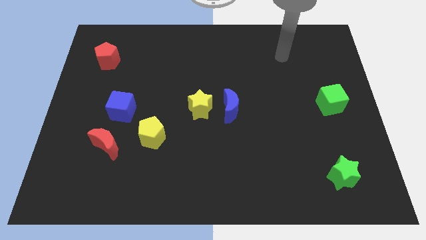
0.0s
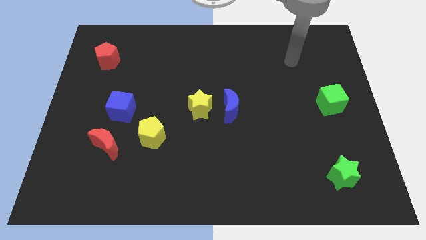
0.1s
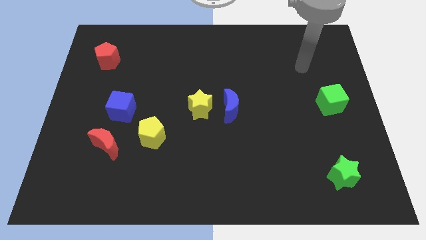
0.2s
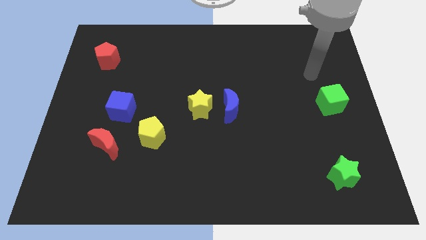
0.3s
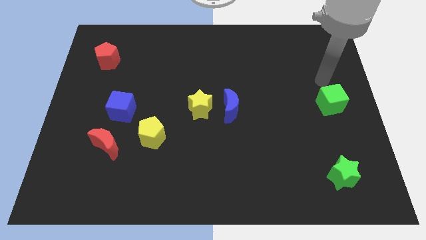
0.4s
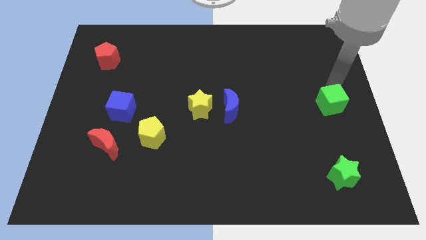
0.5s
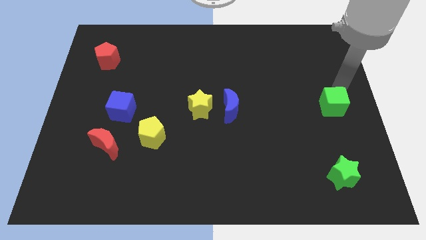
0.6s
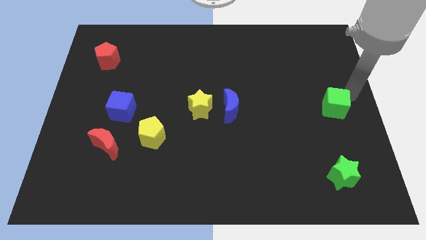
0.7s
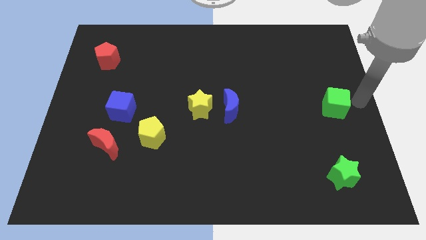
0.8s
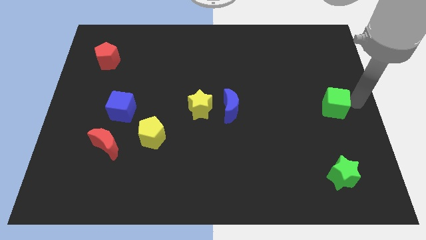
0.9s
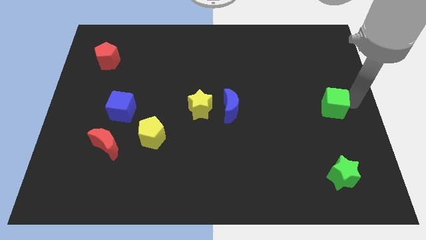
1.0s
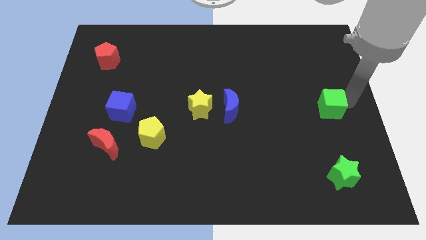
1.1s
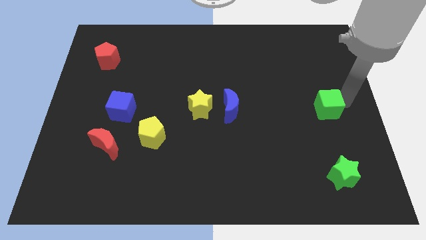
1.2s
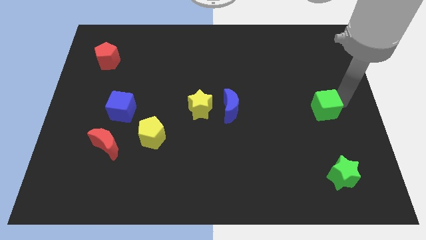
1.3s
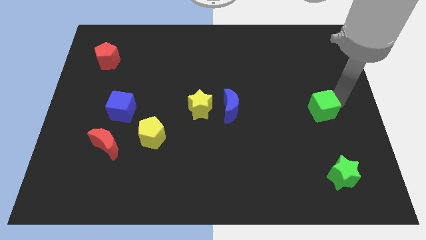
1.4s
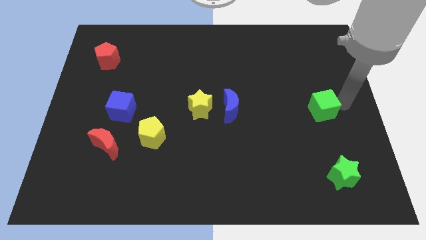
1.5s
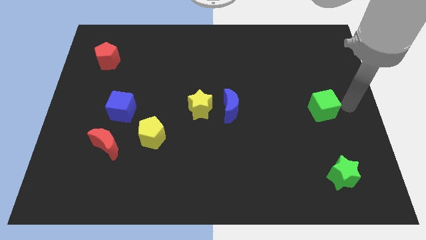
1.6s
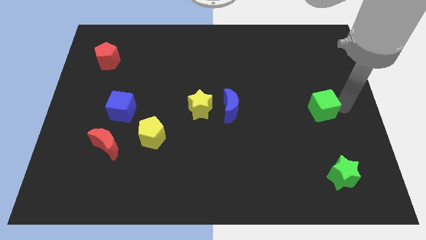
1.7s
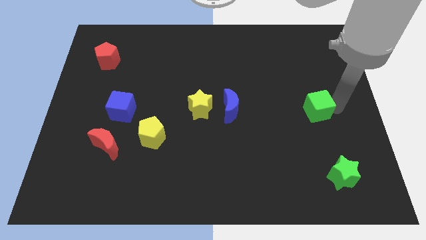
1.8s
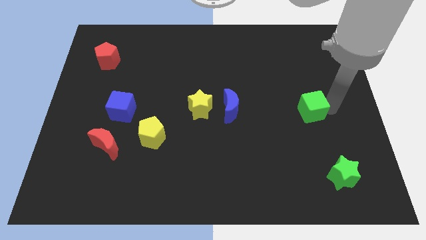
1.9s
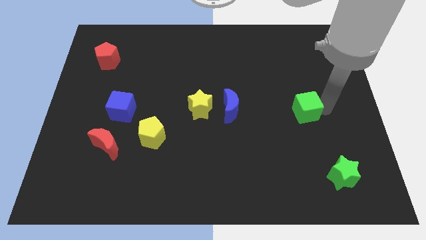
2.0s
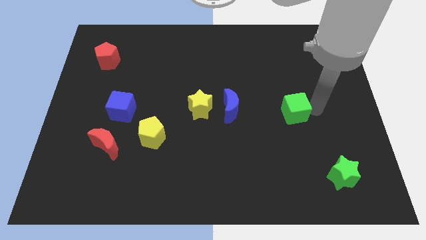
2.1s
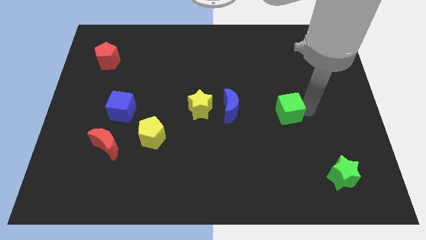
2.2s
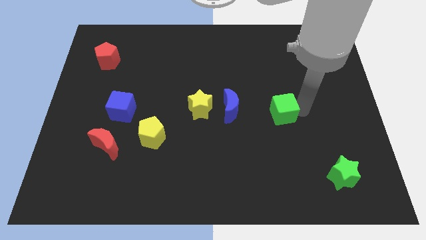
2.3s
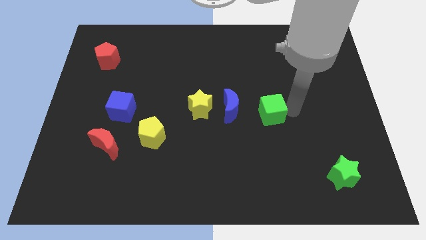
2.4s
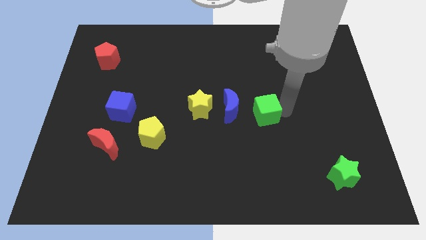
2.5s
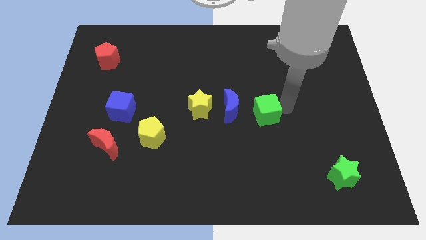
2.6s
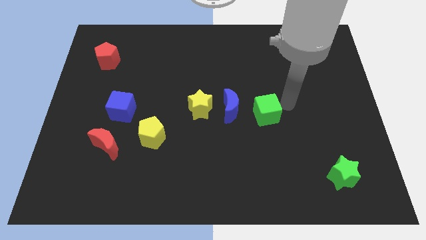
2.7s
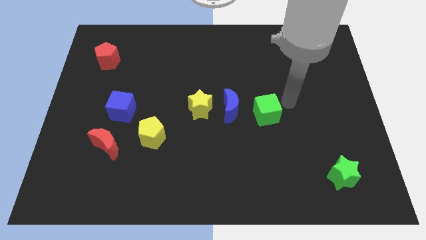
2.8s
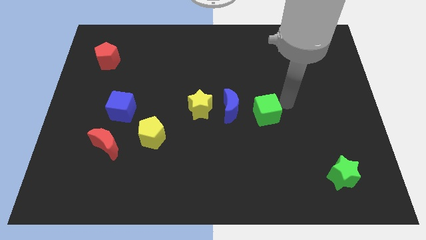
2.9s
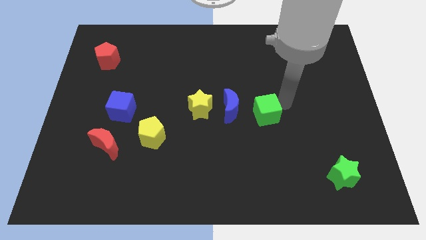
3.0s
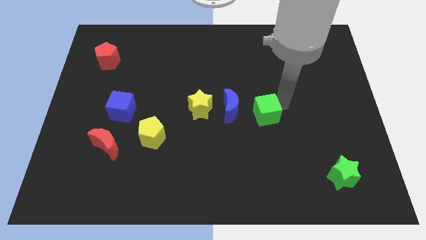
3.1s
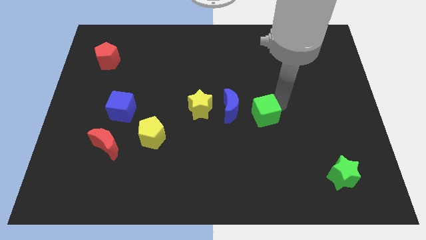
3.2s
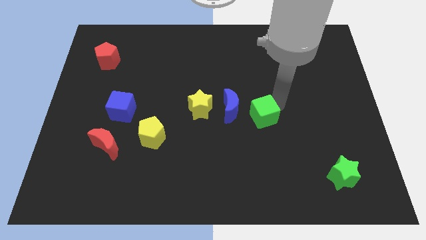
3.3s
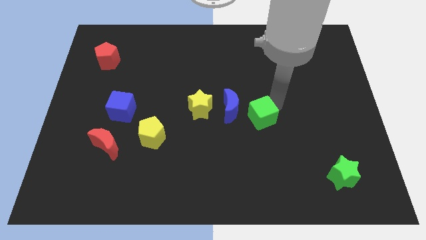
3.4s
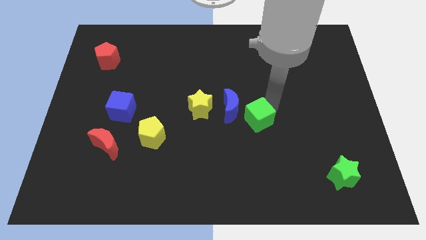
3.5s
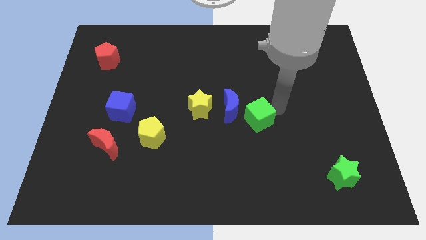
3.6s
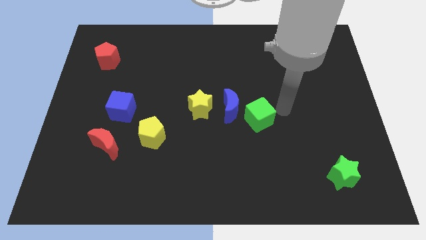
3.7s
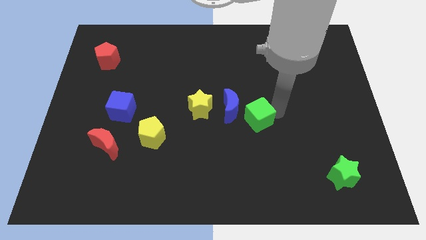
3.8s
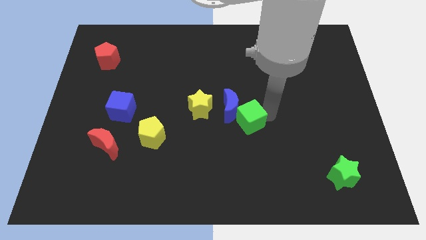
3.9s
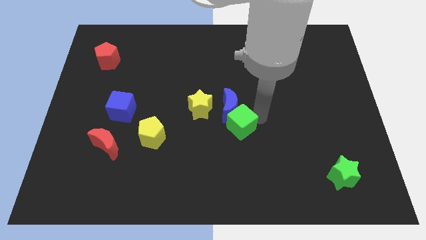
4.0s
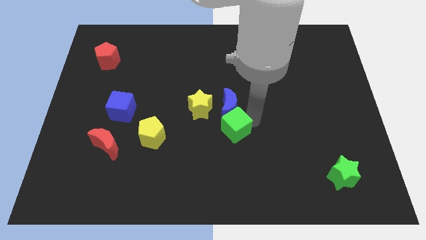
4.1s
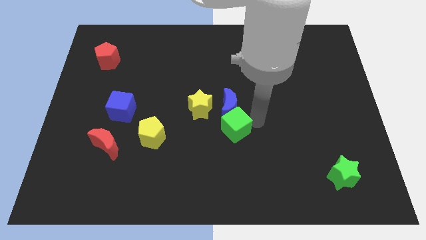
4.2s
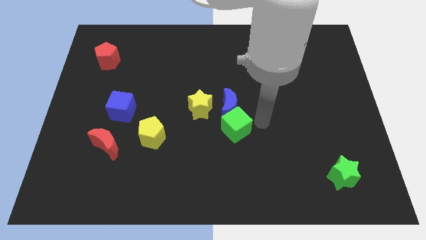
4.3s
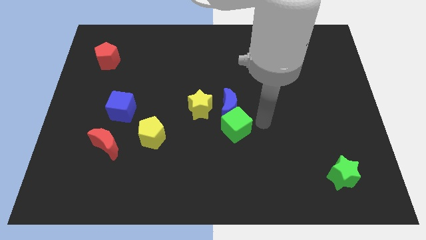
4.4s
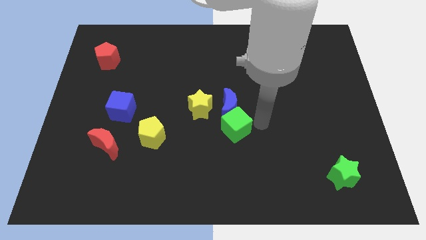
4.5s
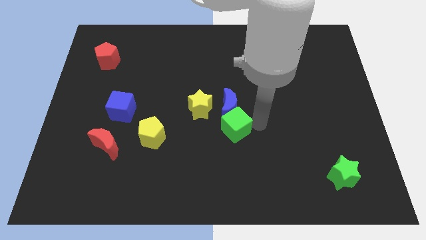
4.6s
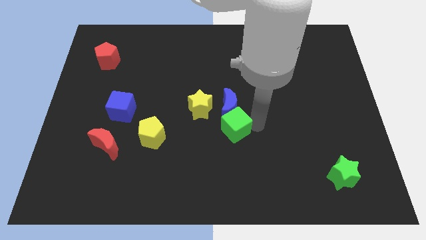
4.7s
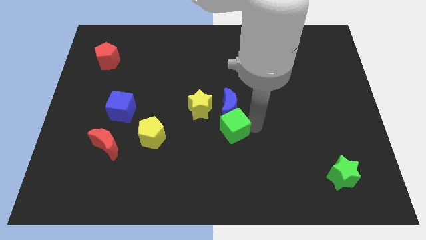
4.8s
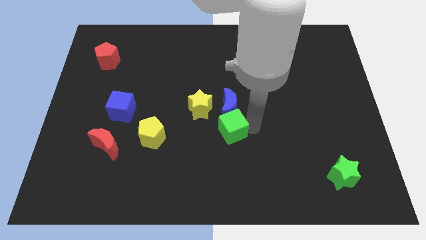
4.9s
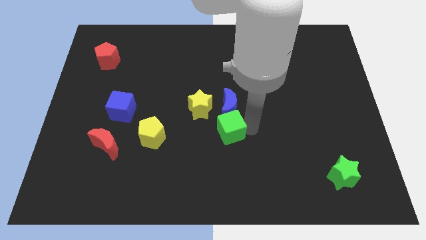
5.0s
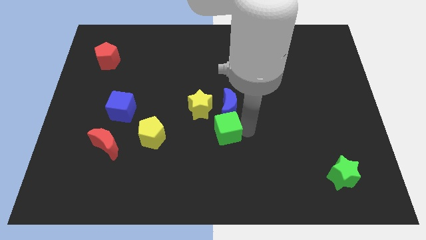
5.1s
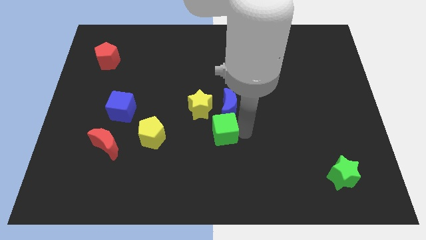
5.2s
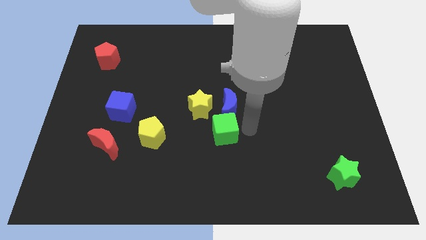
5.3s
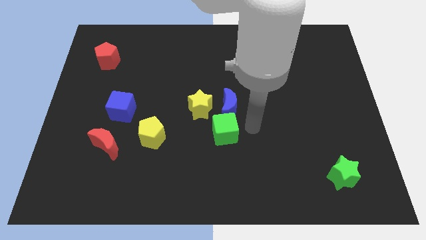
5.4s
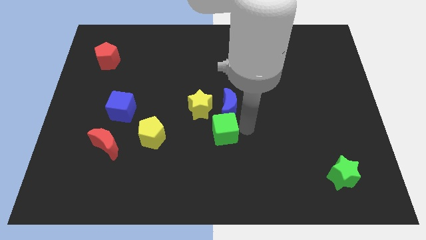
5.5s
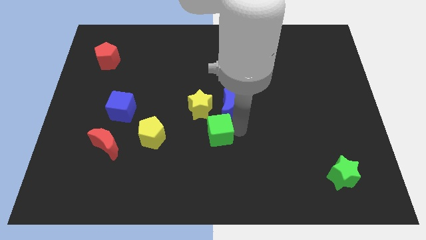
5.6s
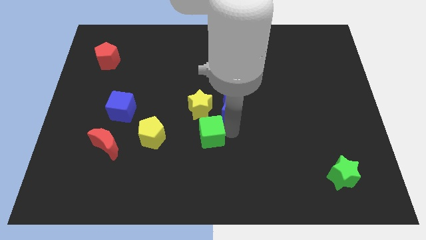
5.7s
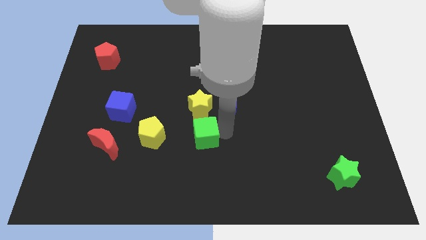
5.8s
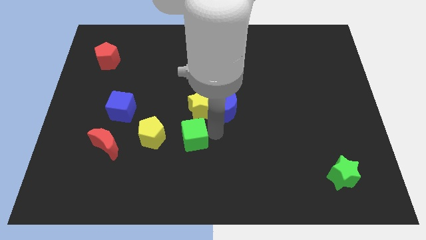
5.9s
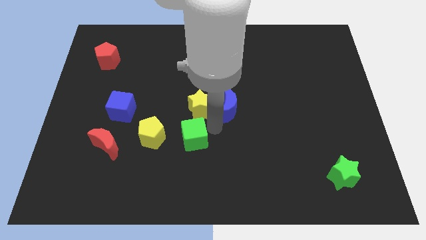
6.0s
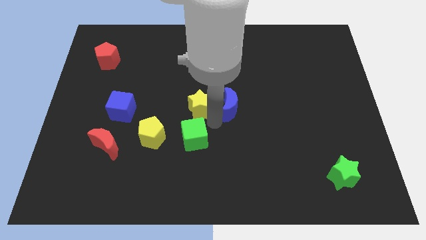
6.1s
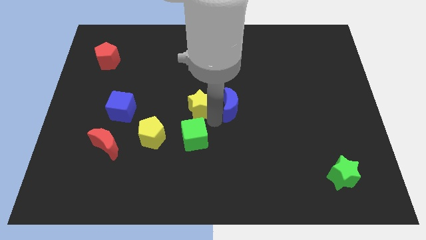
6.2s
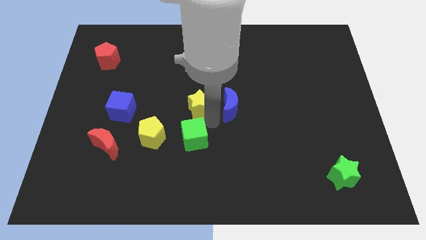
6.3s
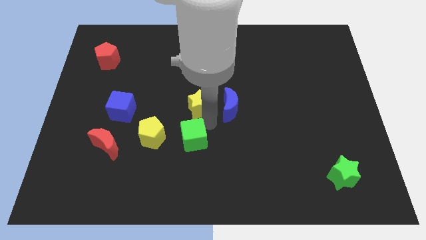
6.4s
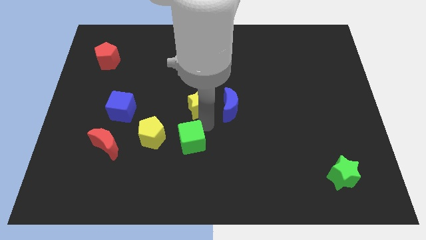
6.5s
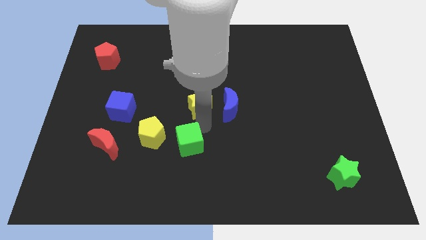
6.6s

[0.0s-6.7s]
push the green cube to the bottom right side of the yellow pentagon

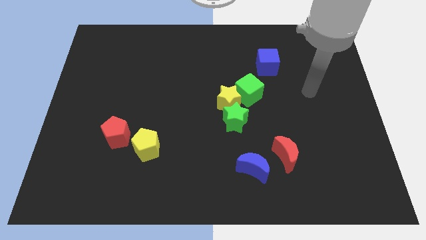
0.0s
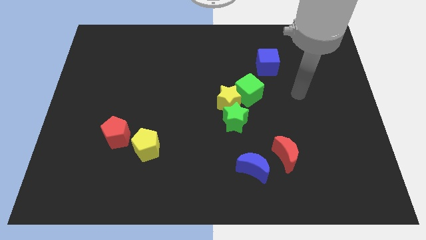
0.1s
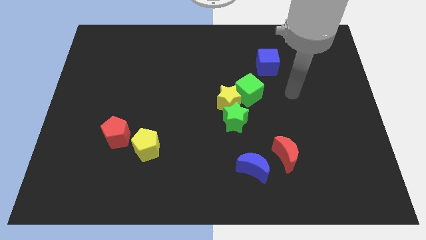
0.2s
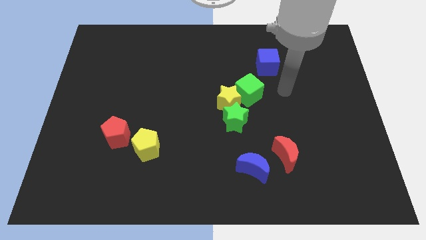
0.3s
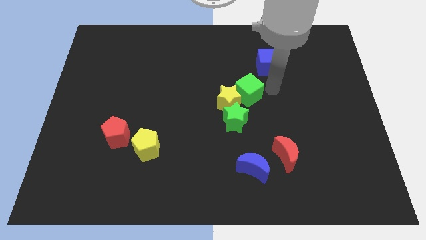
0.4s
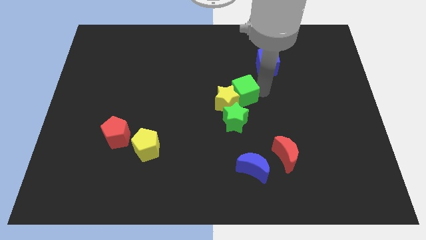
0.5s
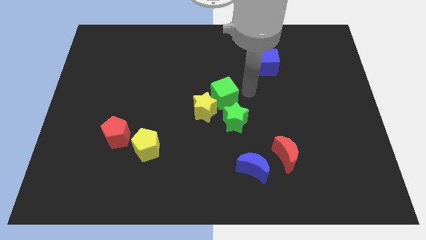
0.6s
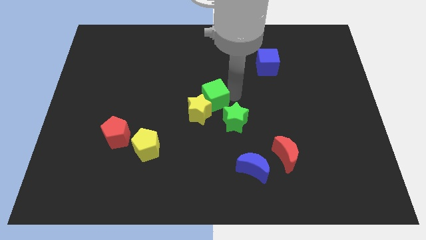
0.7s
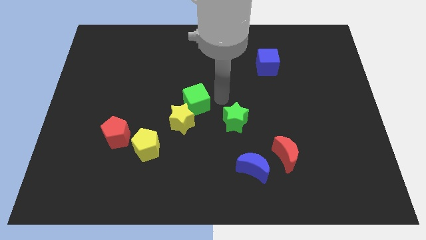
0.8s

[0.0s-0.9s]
slide the yellow star diagonally up and to the right of the yellow pentagon
